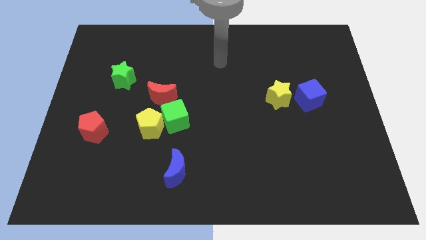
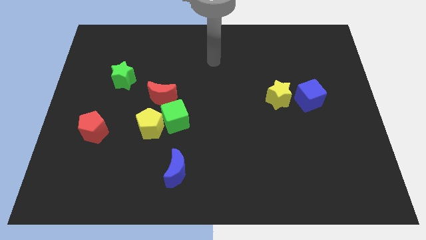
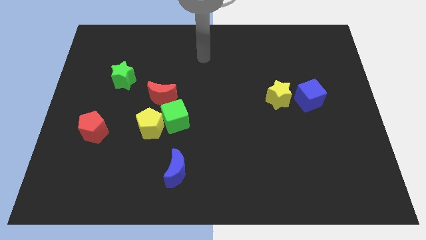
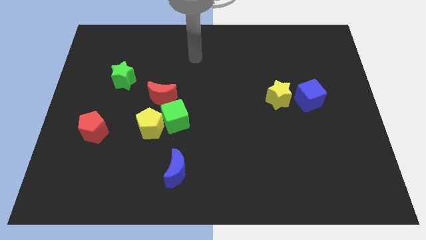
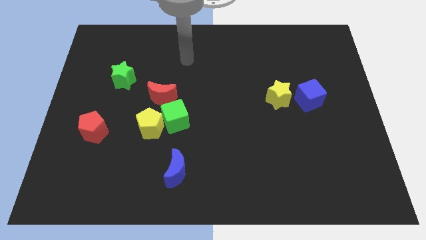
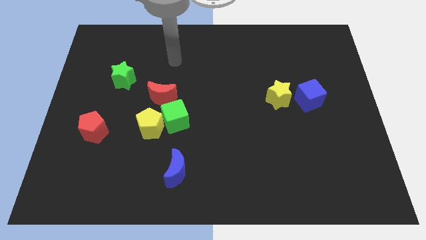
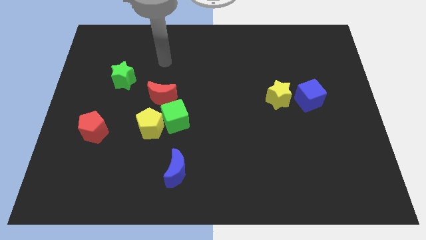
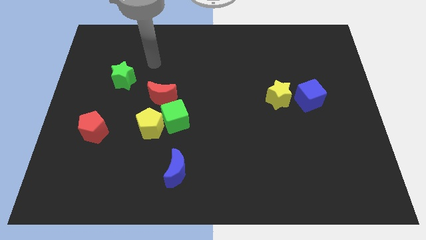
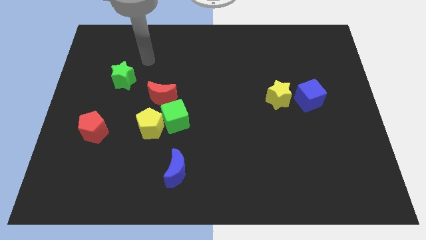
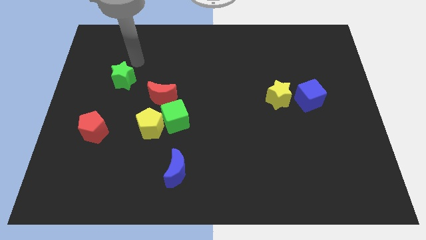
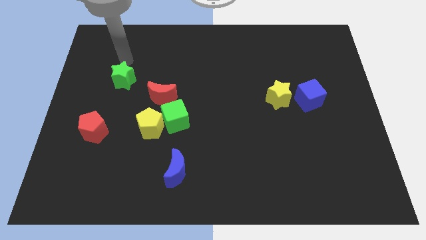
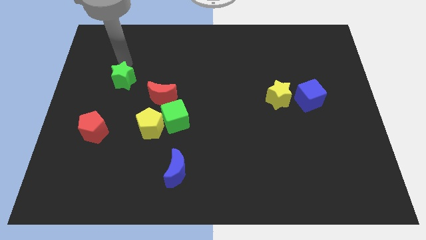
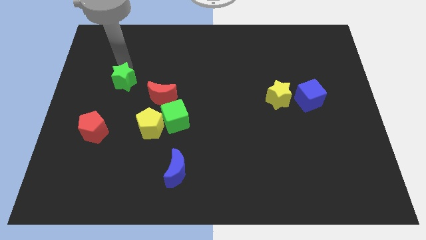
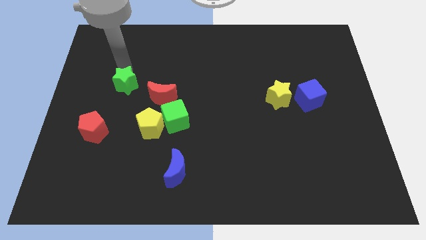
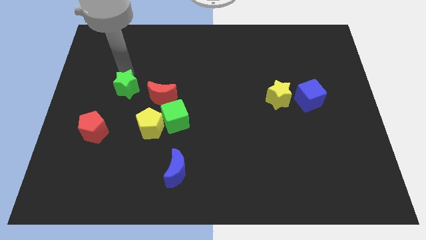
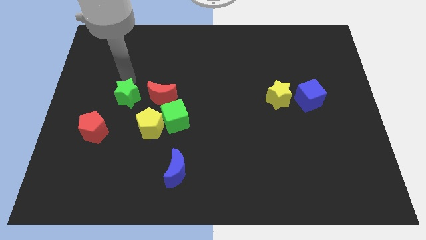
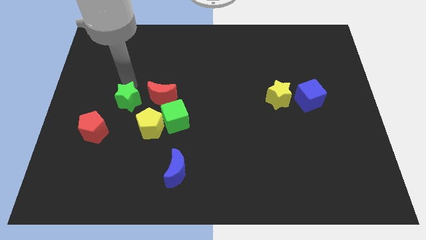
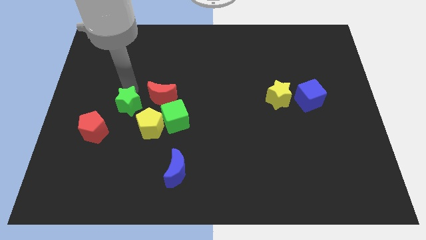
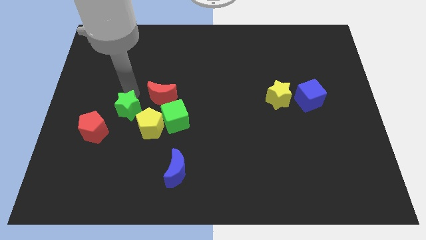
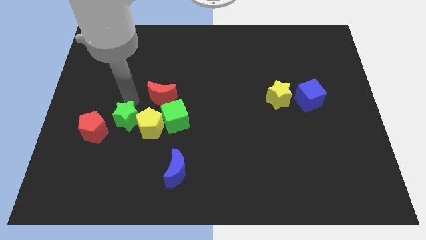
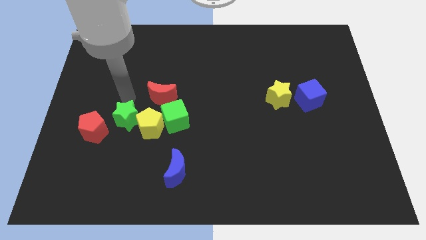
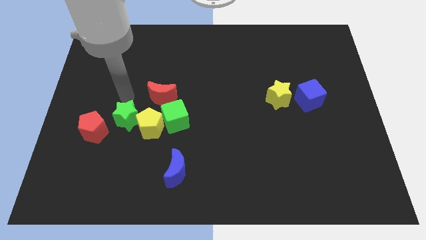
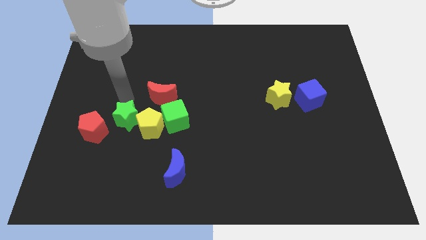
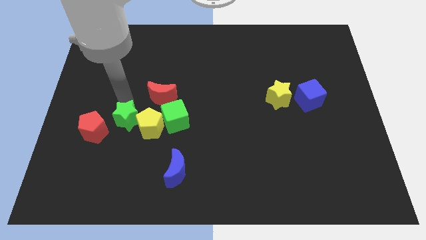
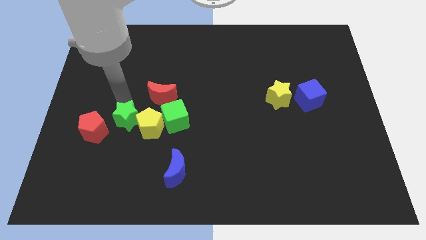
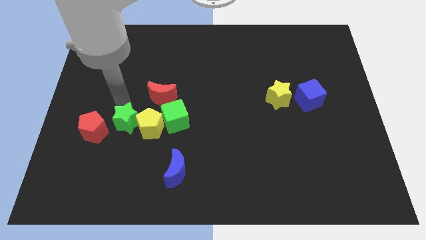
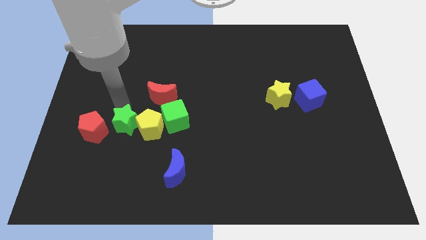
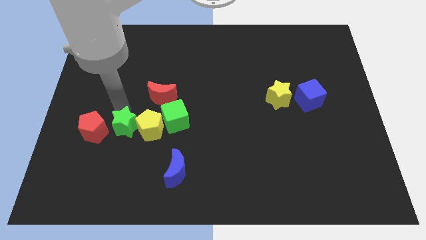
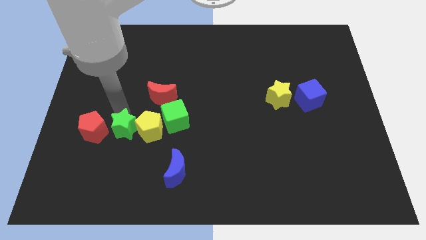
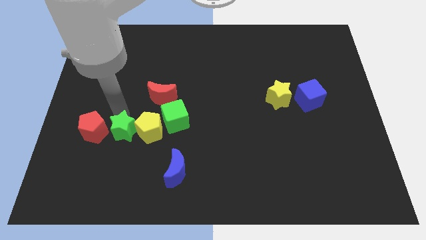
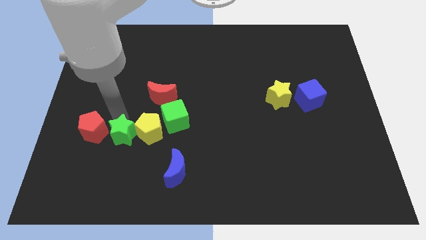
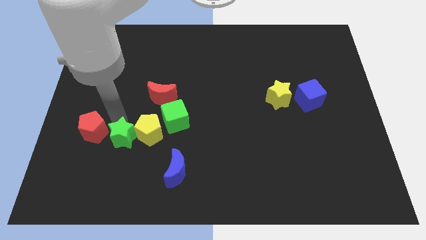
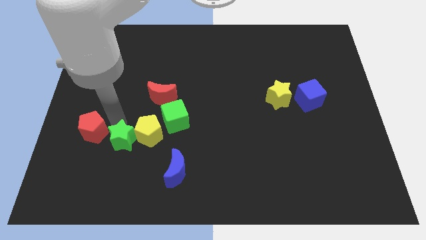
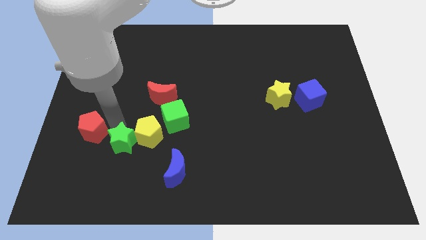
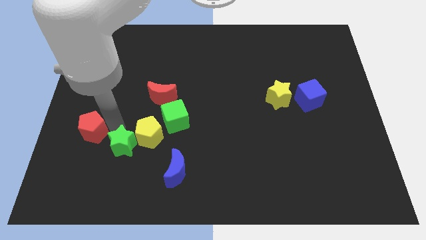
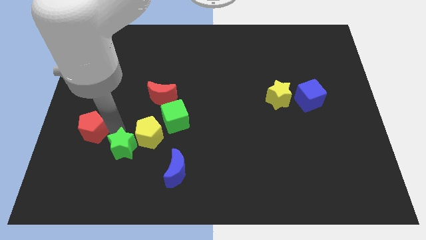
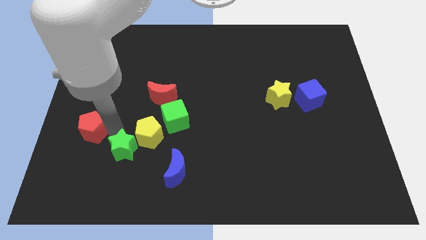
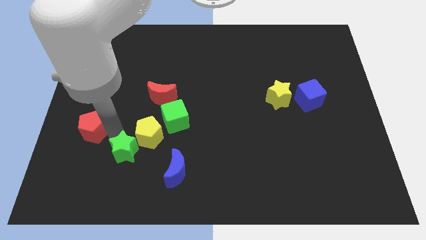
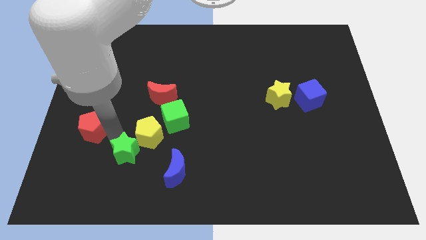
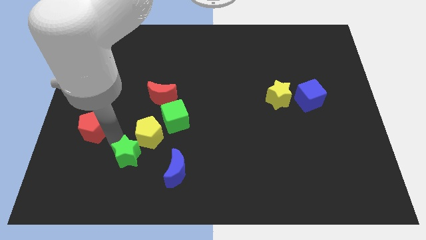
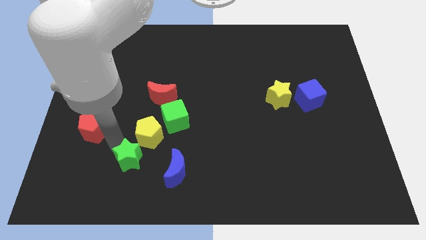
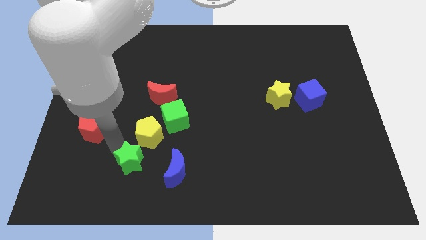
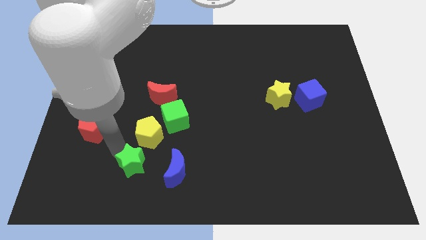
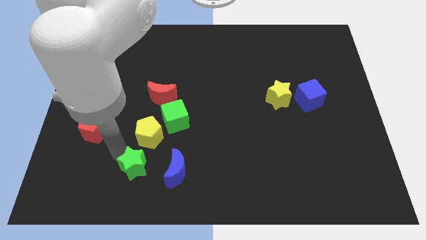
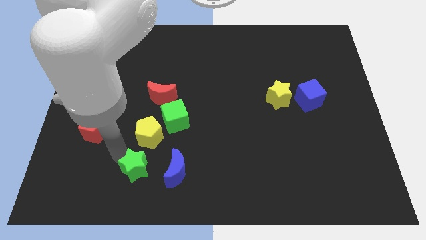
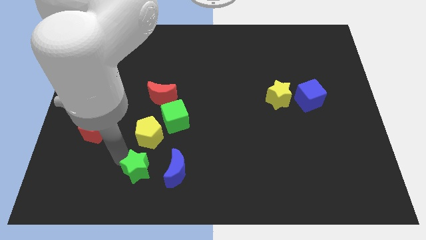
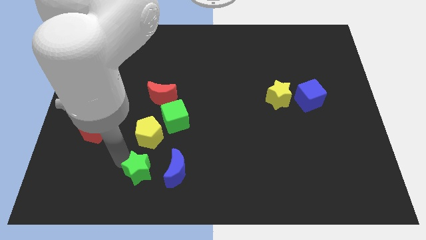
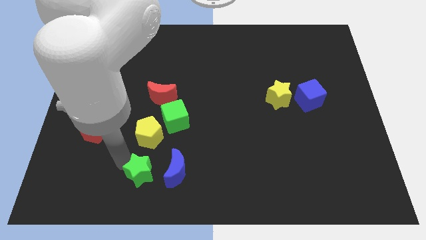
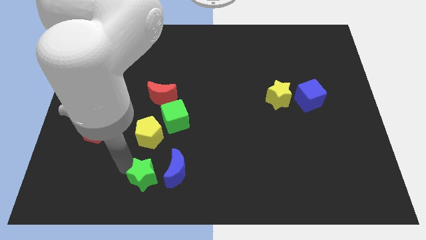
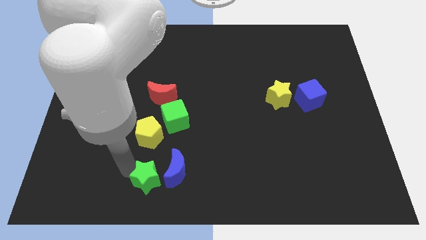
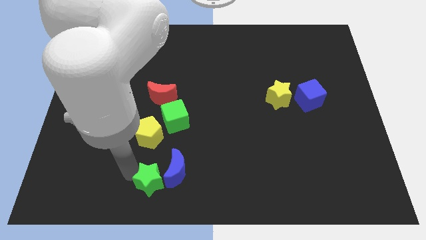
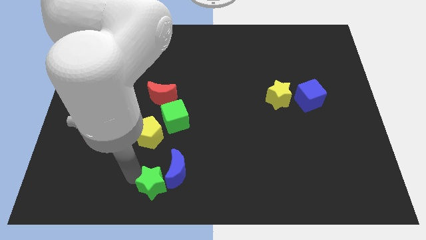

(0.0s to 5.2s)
slide the green star to the bottom
